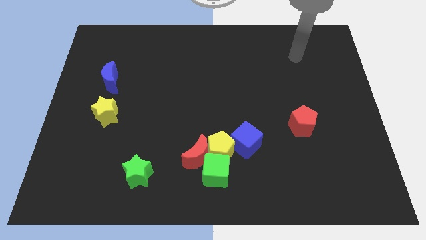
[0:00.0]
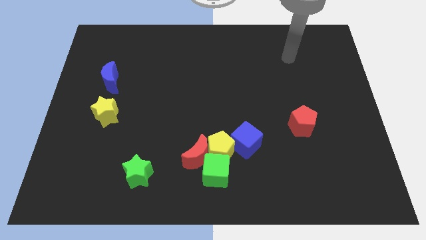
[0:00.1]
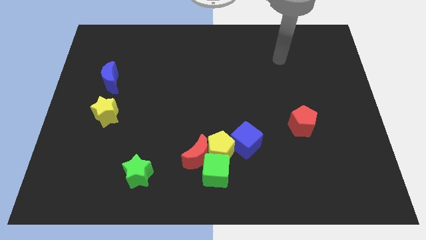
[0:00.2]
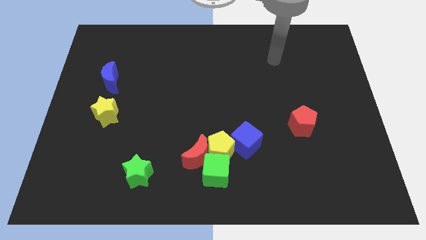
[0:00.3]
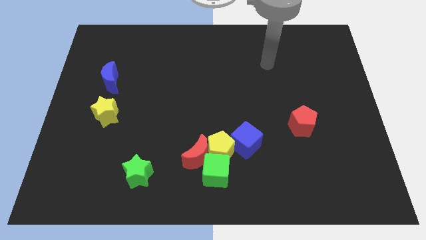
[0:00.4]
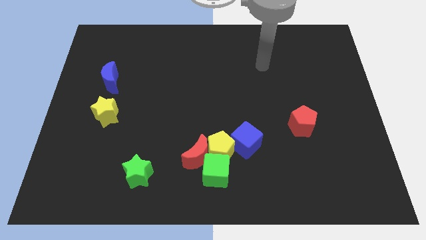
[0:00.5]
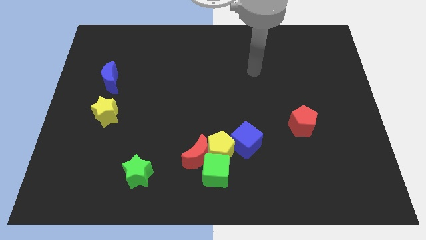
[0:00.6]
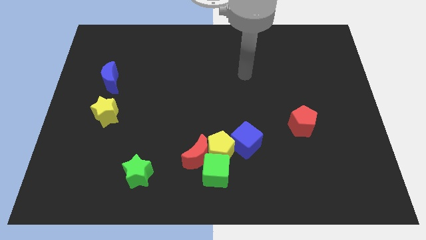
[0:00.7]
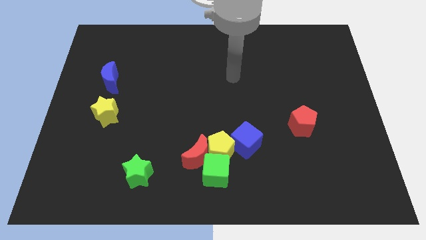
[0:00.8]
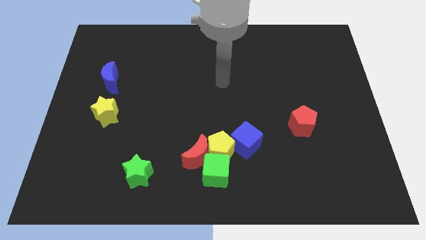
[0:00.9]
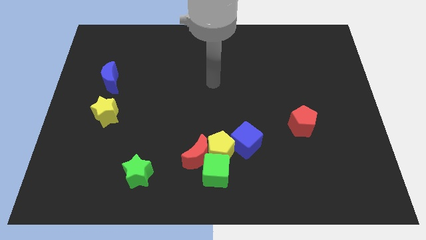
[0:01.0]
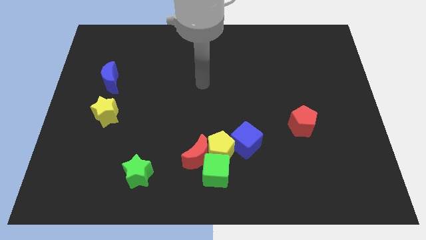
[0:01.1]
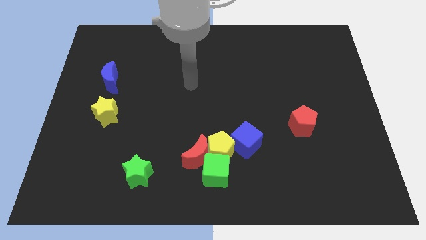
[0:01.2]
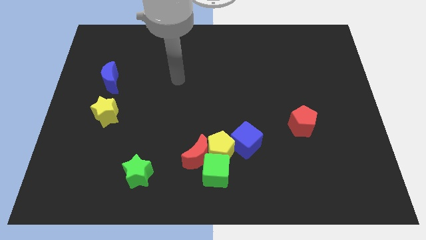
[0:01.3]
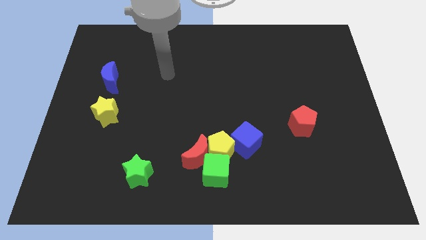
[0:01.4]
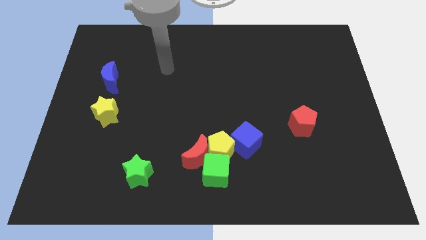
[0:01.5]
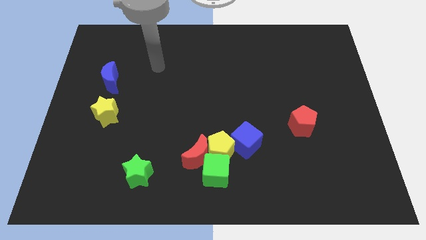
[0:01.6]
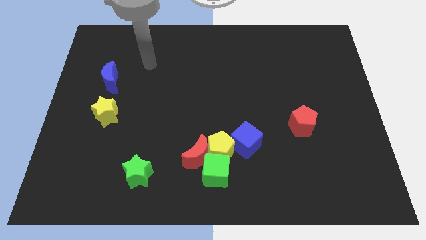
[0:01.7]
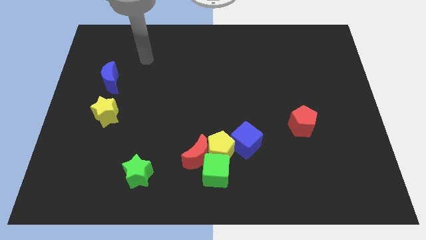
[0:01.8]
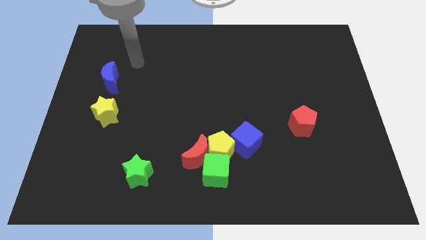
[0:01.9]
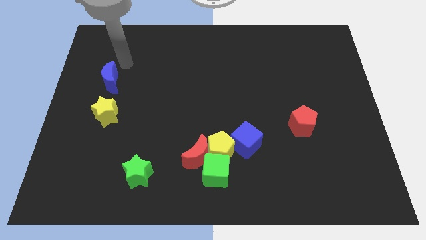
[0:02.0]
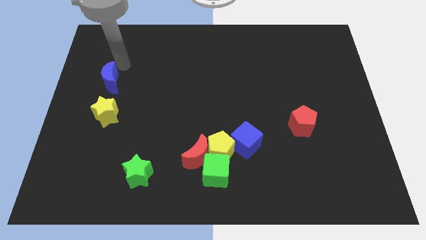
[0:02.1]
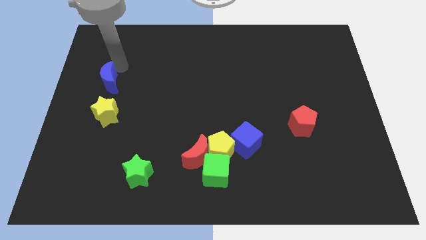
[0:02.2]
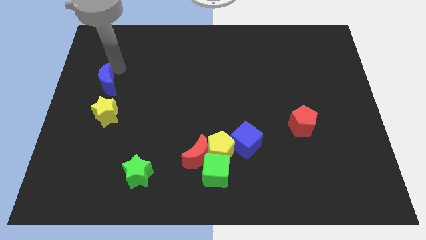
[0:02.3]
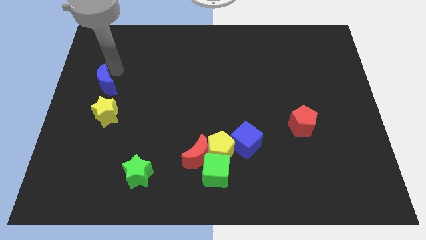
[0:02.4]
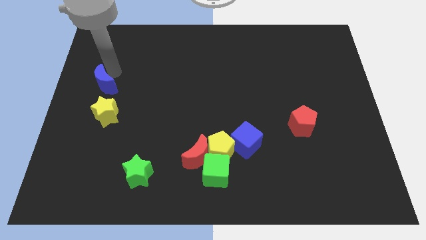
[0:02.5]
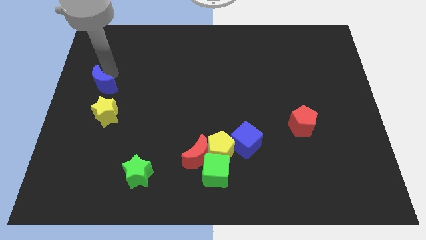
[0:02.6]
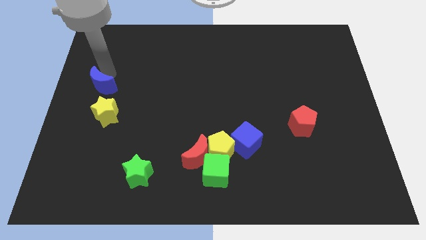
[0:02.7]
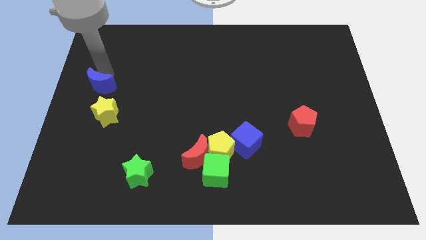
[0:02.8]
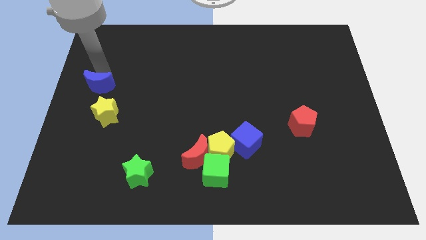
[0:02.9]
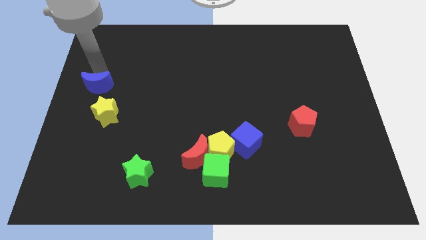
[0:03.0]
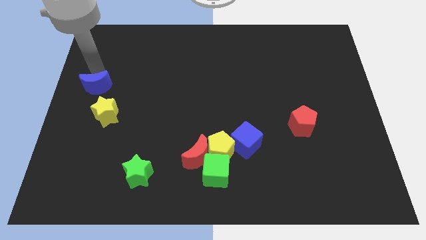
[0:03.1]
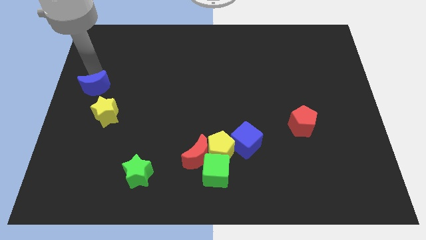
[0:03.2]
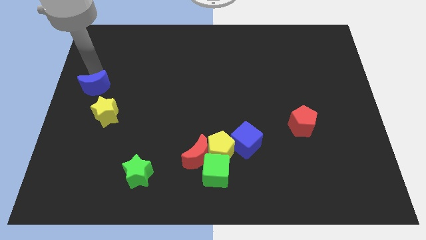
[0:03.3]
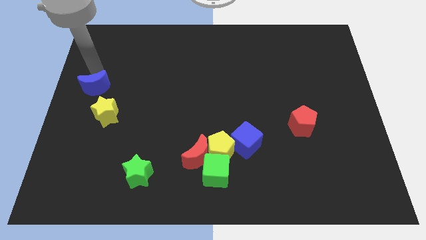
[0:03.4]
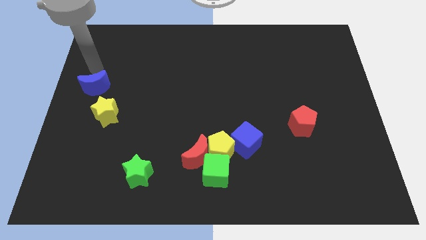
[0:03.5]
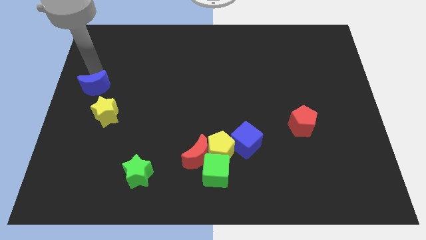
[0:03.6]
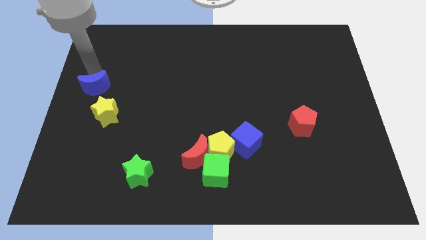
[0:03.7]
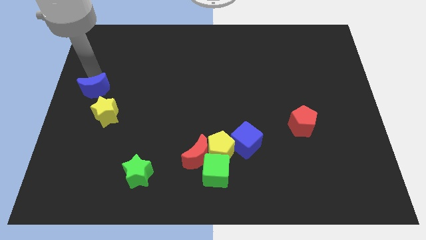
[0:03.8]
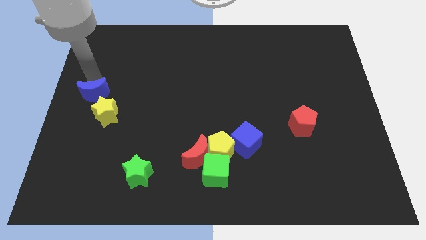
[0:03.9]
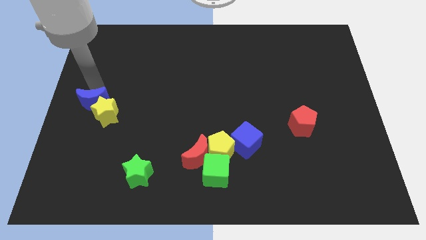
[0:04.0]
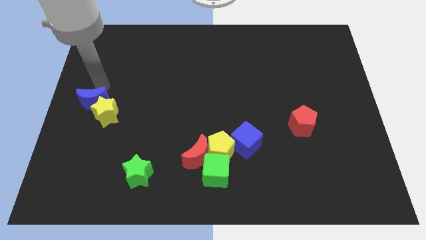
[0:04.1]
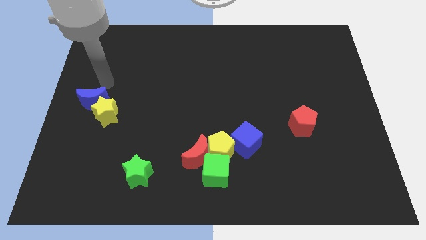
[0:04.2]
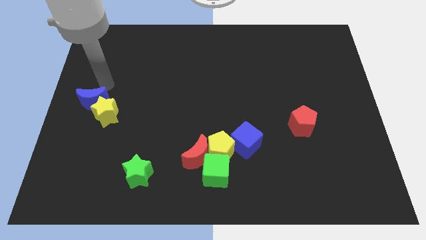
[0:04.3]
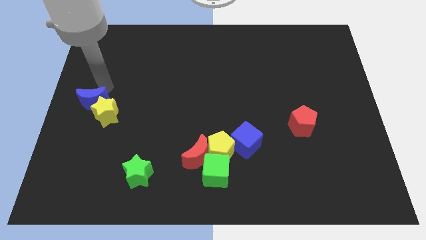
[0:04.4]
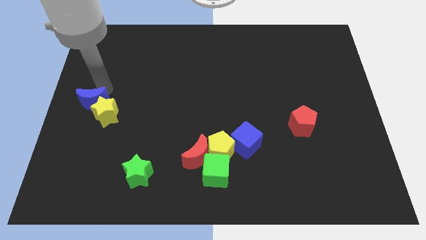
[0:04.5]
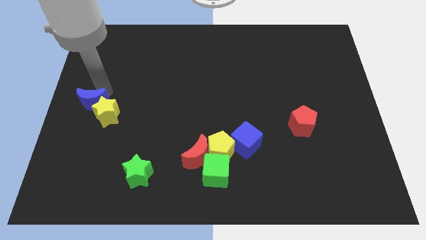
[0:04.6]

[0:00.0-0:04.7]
move the blue moon a little down

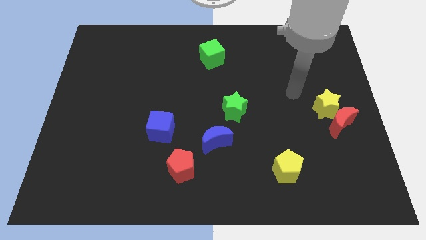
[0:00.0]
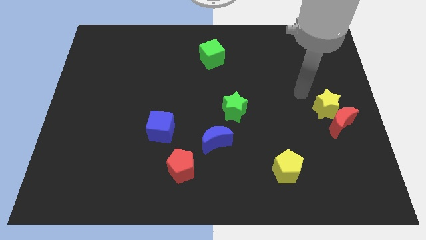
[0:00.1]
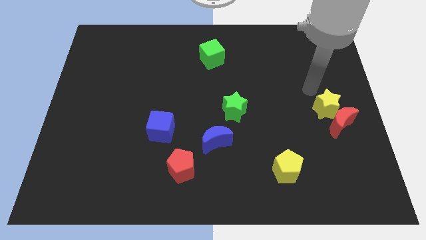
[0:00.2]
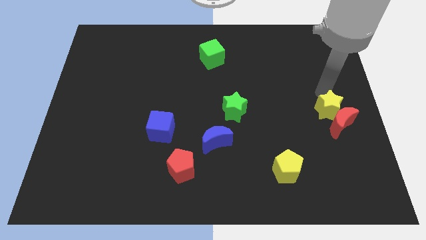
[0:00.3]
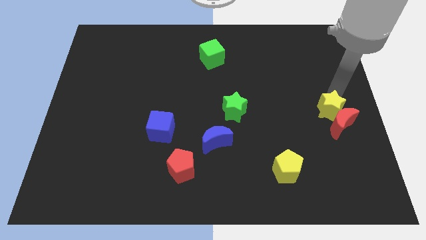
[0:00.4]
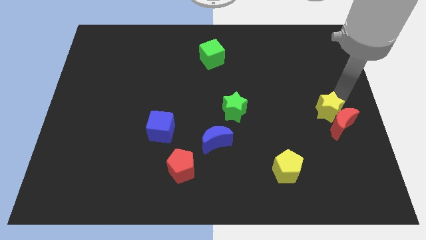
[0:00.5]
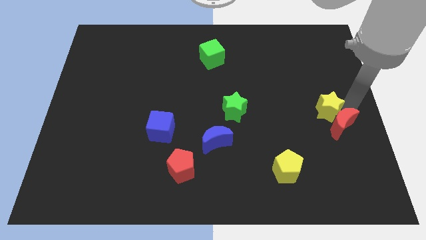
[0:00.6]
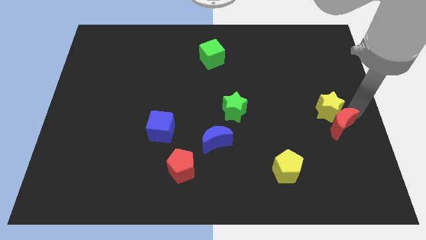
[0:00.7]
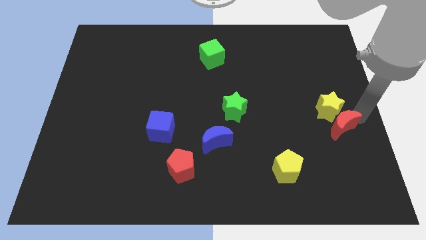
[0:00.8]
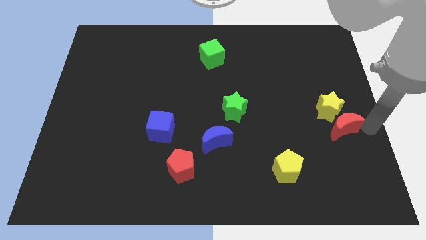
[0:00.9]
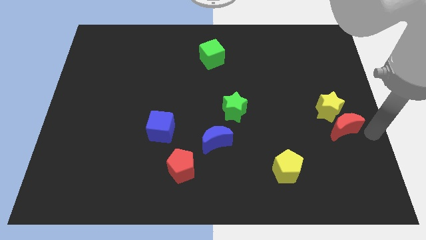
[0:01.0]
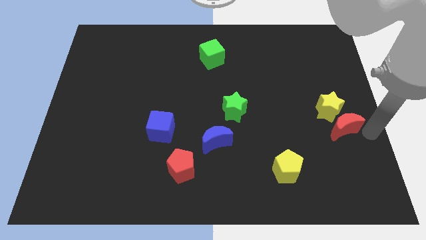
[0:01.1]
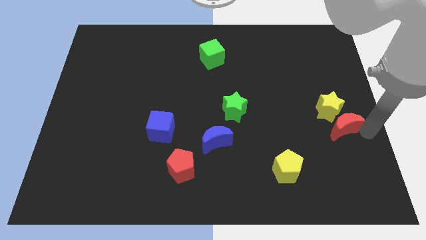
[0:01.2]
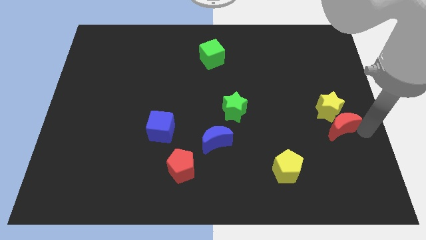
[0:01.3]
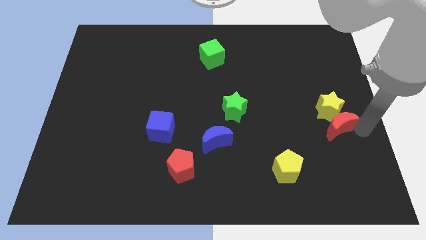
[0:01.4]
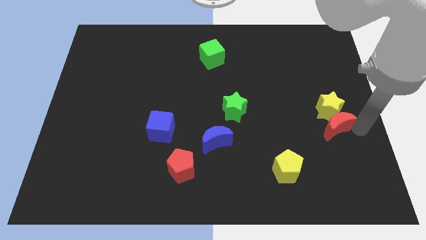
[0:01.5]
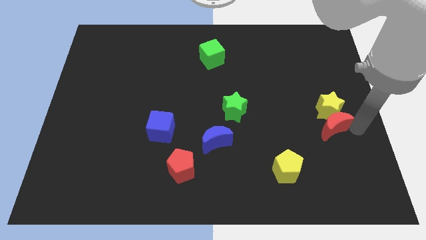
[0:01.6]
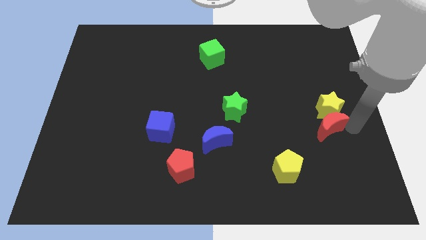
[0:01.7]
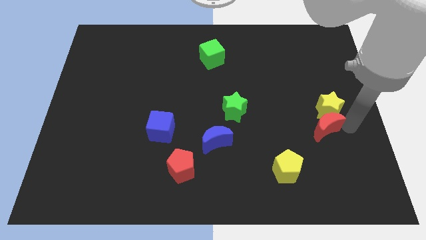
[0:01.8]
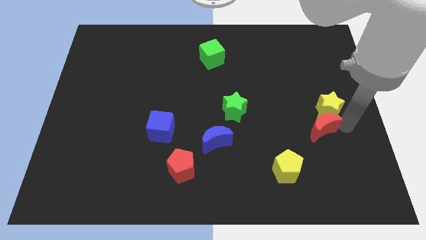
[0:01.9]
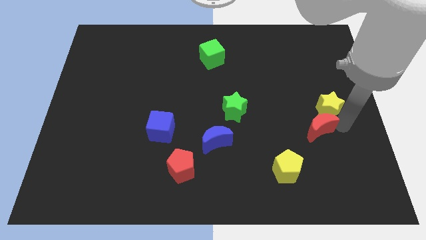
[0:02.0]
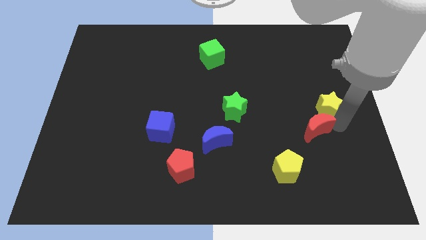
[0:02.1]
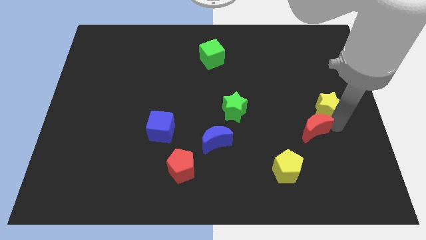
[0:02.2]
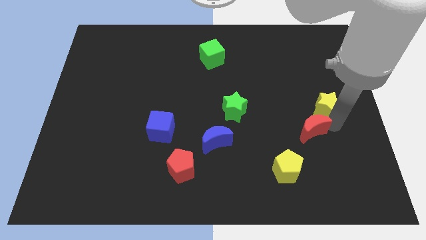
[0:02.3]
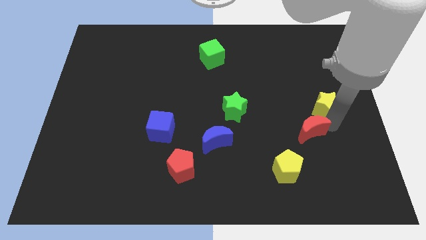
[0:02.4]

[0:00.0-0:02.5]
push the red moon somewhat to the left

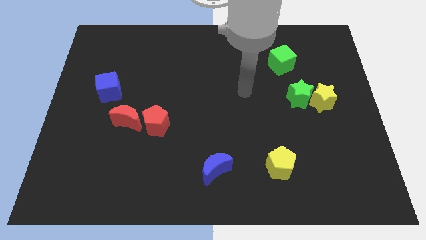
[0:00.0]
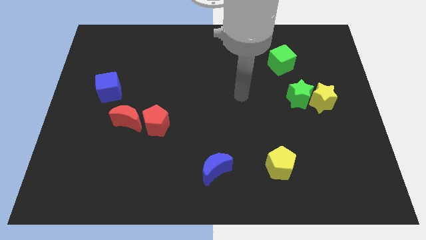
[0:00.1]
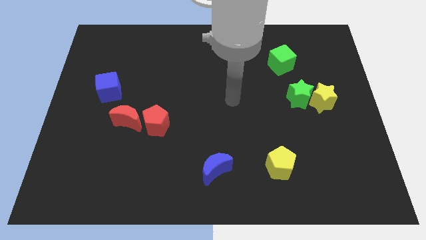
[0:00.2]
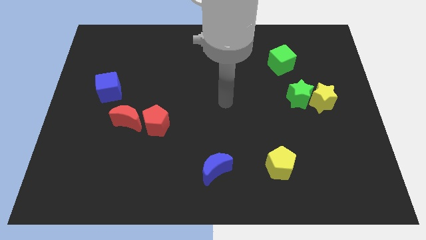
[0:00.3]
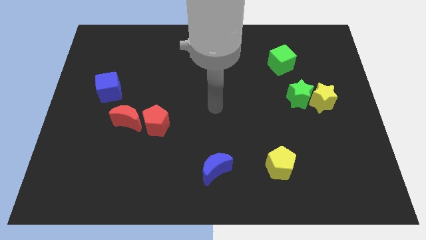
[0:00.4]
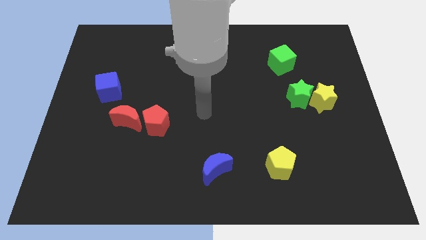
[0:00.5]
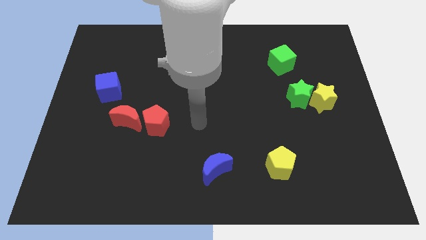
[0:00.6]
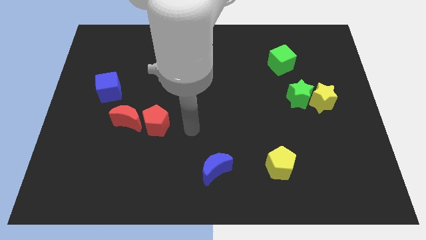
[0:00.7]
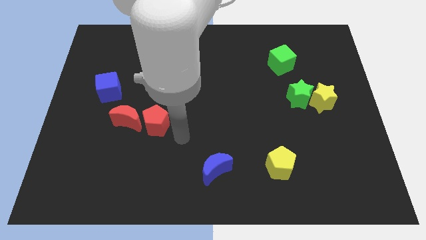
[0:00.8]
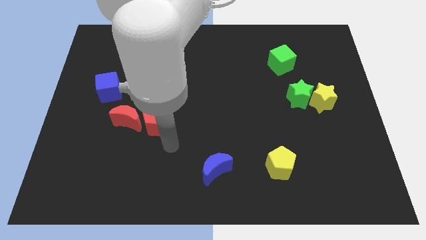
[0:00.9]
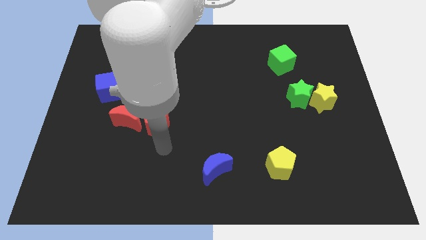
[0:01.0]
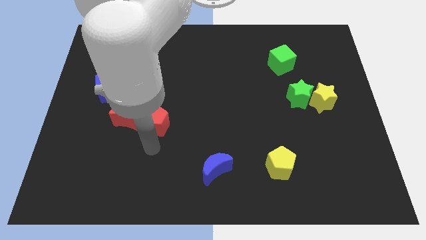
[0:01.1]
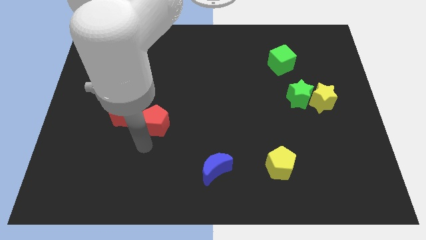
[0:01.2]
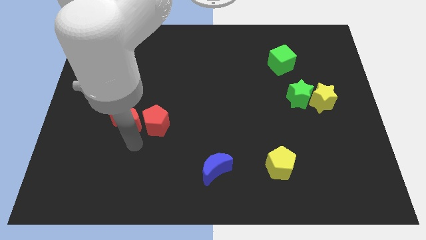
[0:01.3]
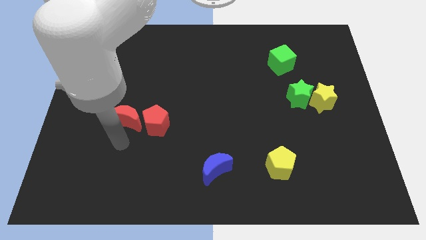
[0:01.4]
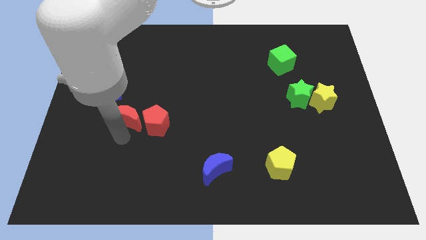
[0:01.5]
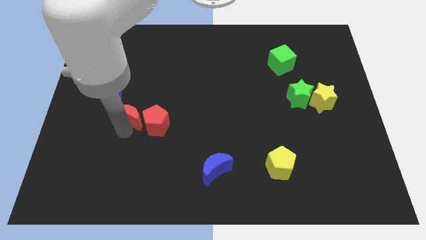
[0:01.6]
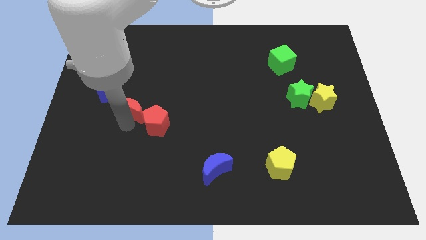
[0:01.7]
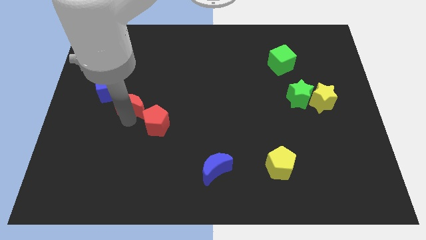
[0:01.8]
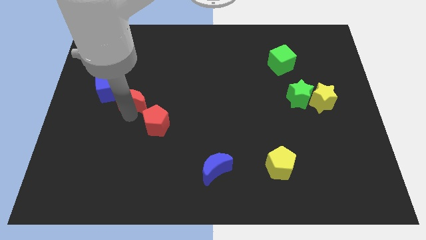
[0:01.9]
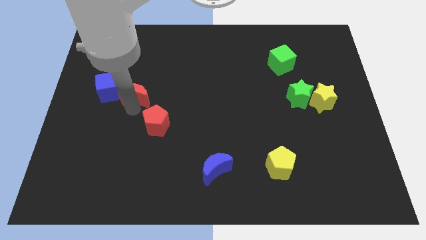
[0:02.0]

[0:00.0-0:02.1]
slightly move the red moon upwards
